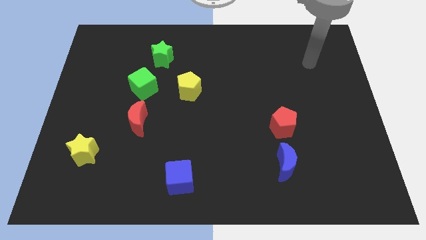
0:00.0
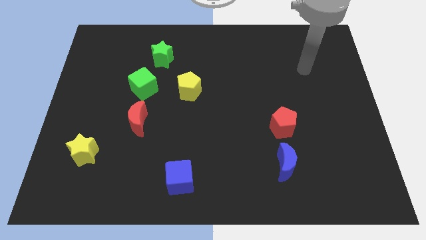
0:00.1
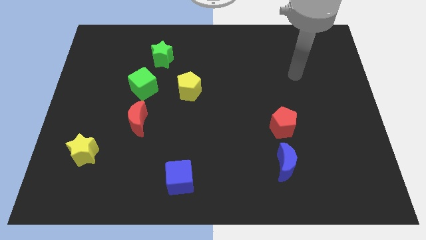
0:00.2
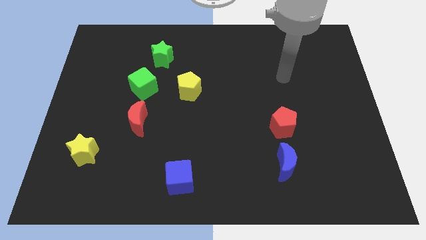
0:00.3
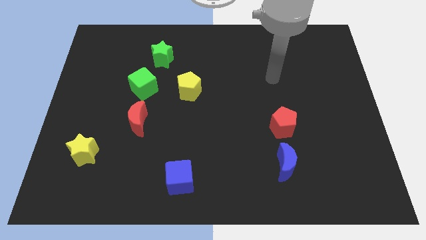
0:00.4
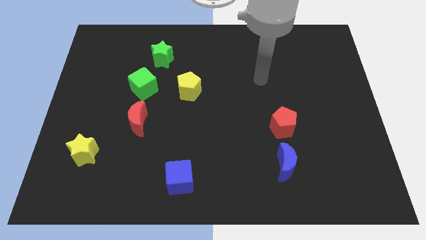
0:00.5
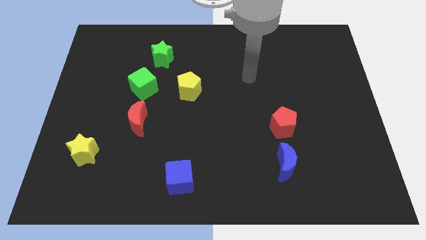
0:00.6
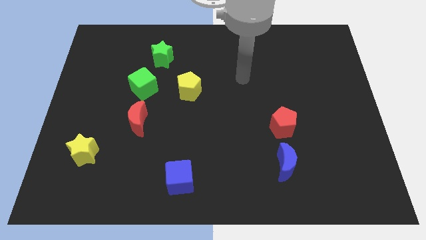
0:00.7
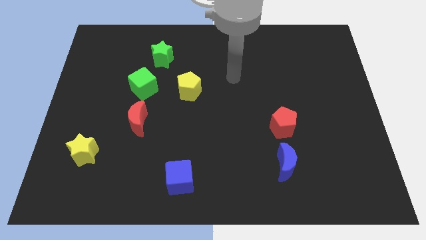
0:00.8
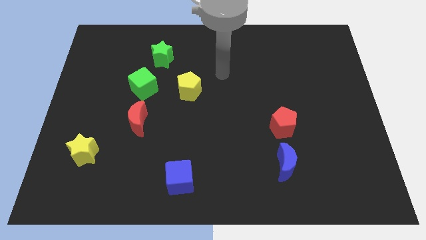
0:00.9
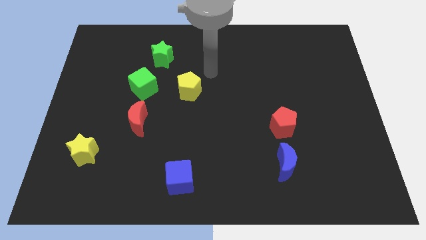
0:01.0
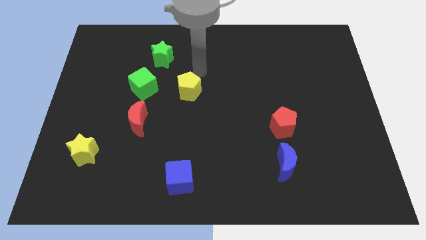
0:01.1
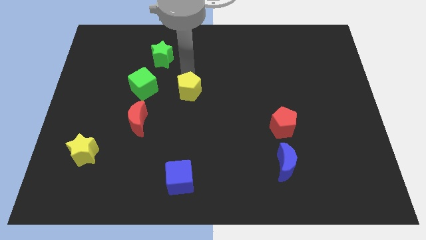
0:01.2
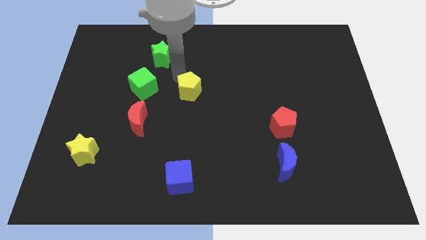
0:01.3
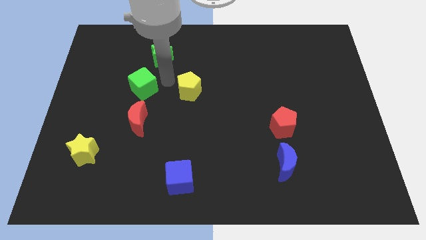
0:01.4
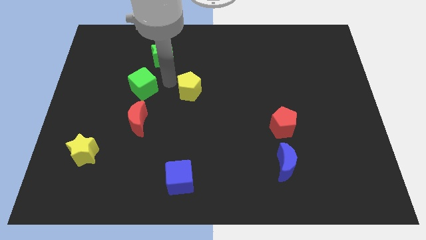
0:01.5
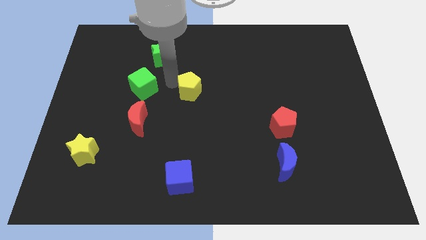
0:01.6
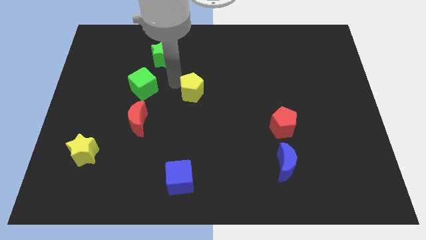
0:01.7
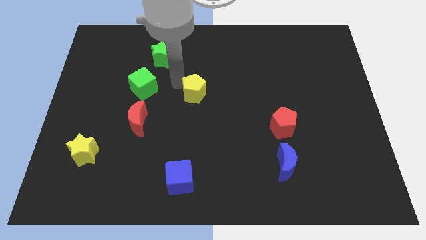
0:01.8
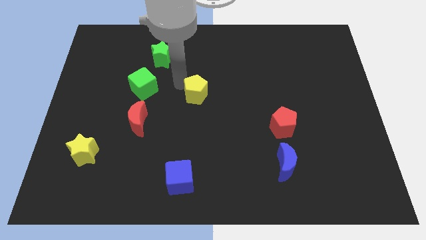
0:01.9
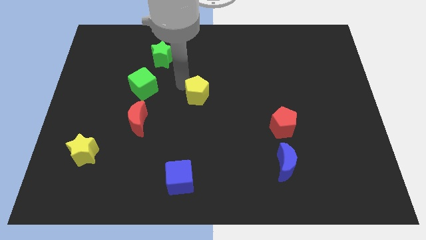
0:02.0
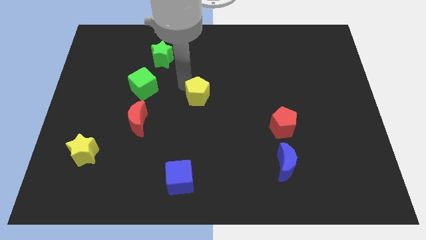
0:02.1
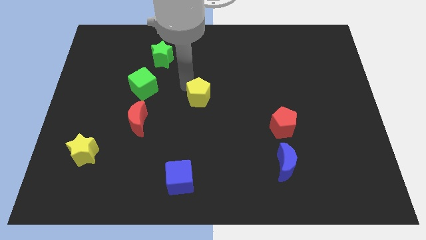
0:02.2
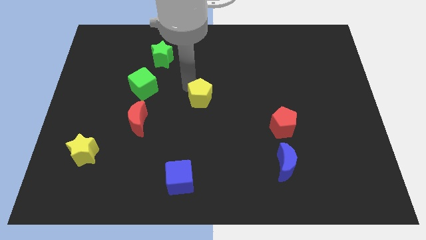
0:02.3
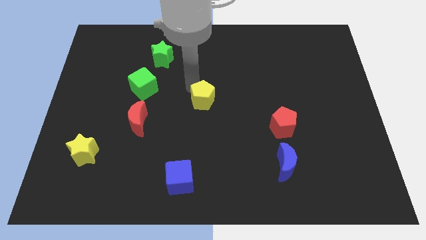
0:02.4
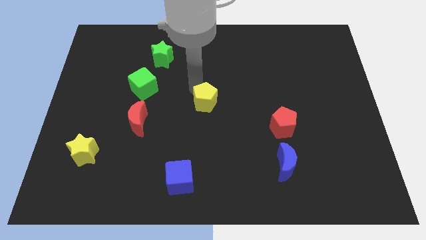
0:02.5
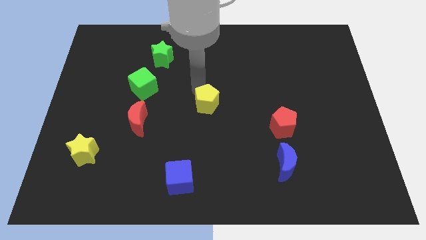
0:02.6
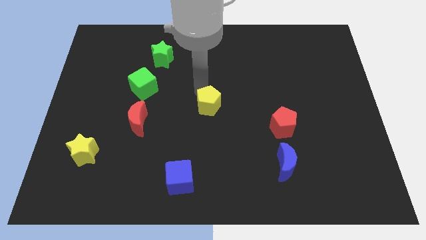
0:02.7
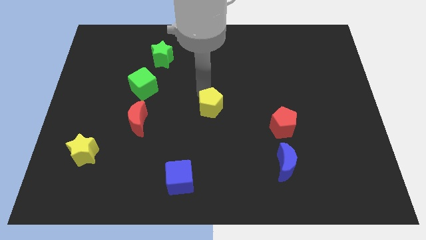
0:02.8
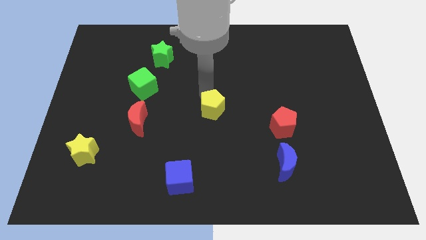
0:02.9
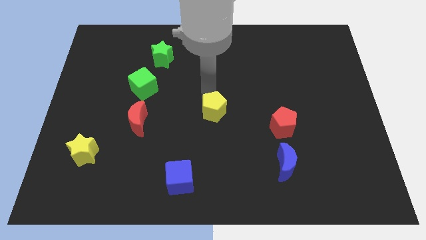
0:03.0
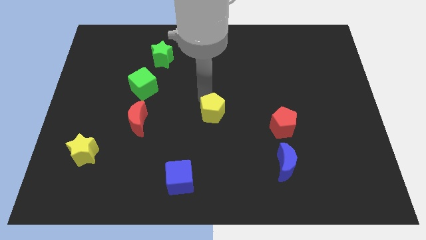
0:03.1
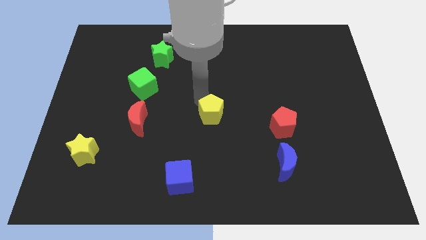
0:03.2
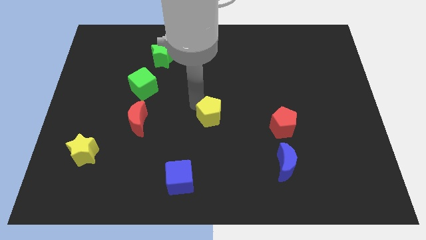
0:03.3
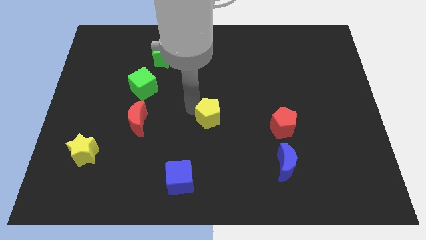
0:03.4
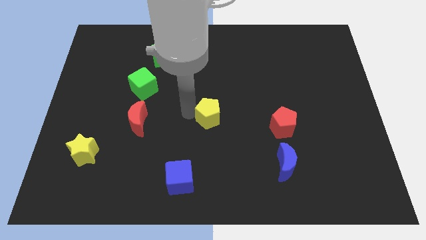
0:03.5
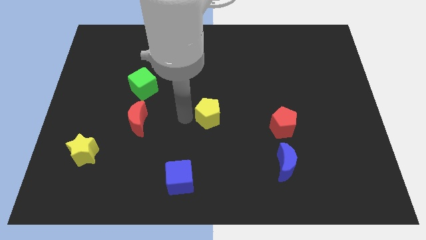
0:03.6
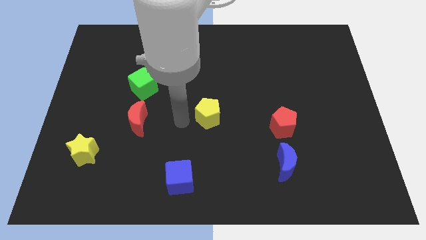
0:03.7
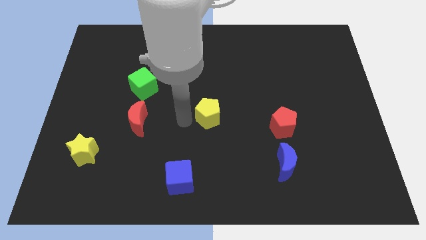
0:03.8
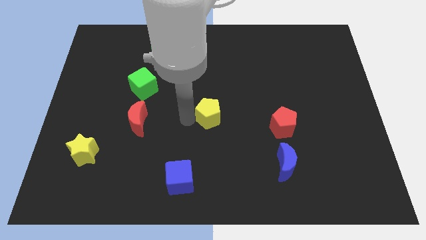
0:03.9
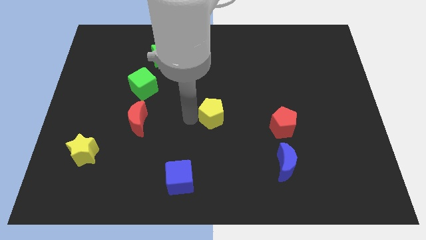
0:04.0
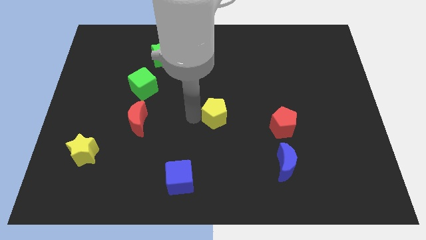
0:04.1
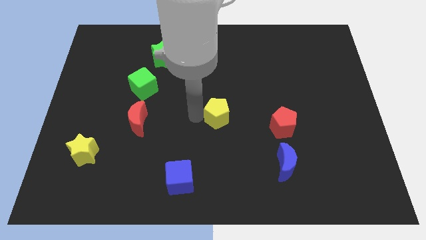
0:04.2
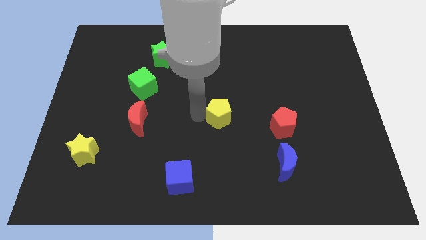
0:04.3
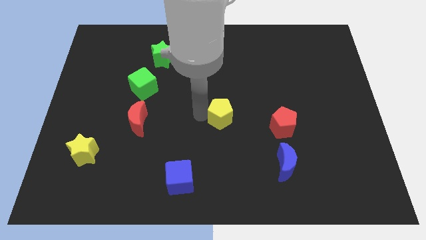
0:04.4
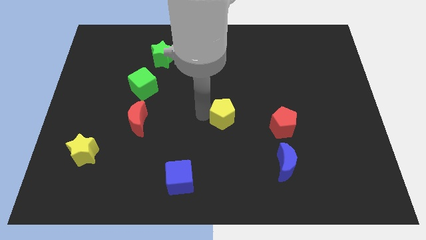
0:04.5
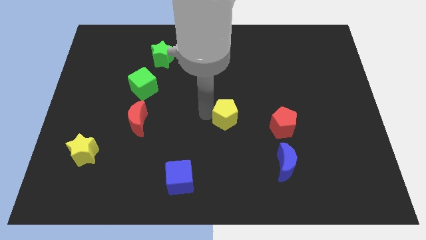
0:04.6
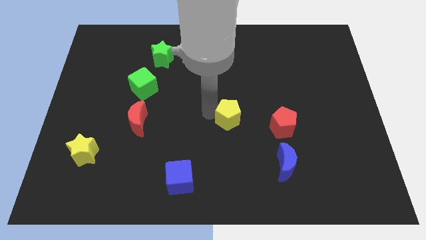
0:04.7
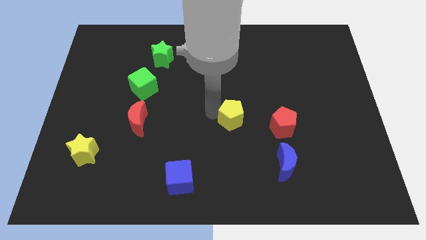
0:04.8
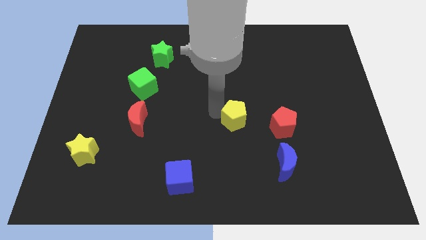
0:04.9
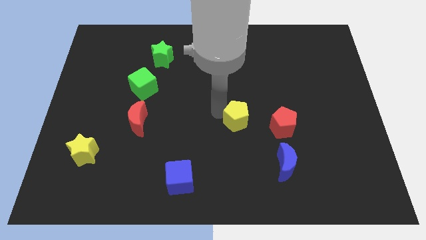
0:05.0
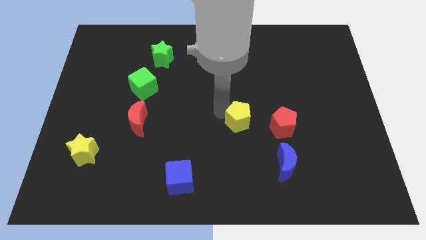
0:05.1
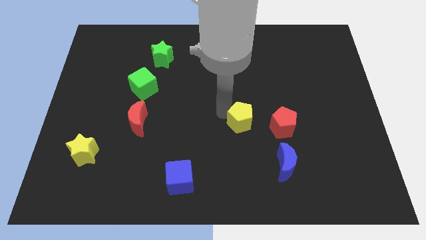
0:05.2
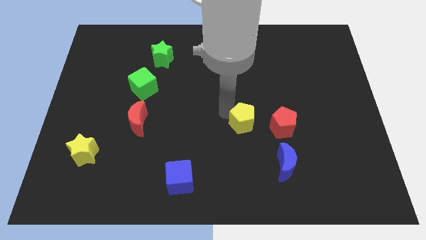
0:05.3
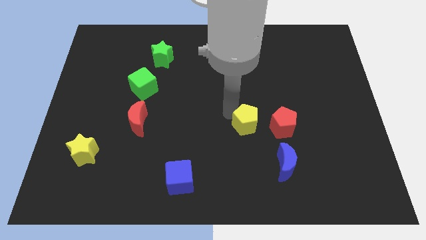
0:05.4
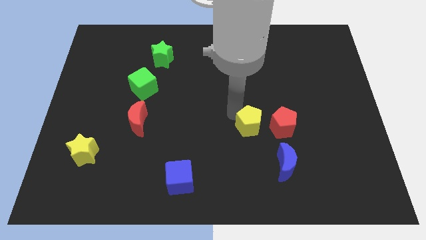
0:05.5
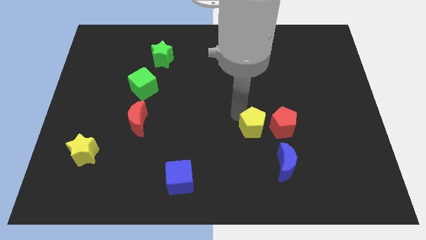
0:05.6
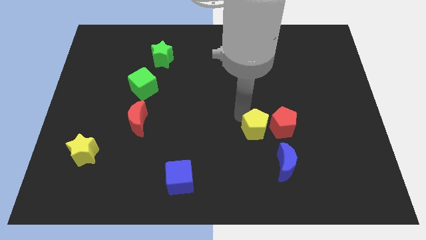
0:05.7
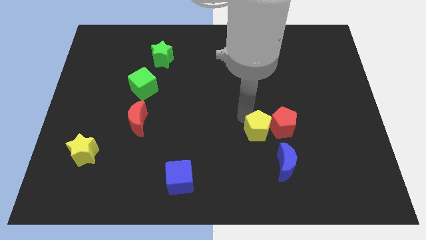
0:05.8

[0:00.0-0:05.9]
move the yellow pentagon close to the red pentagon

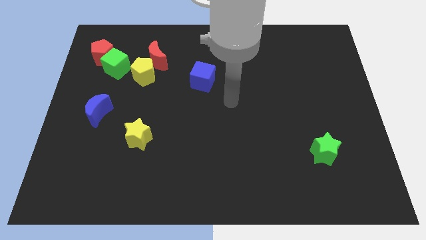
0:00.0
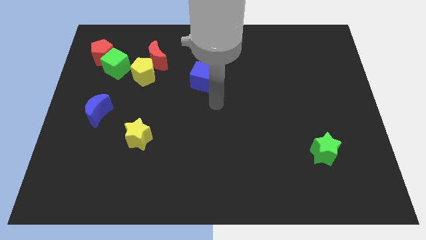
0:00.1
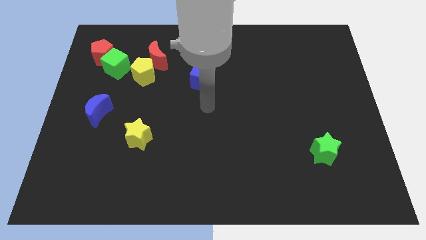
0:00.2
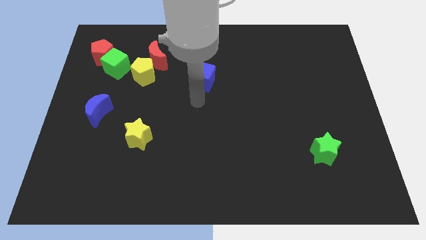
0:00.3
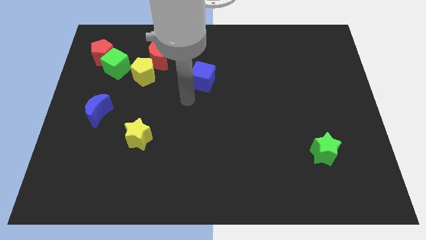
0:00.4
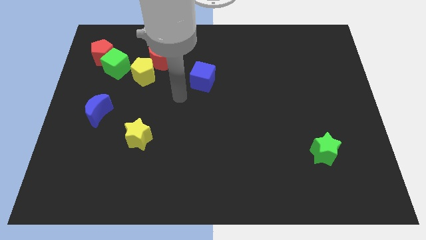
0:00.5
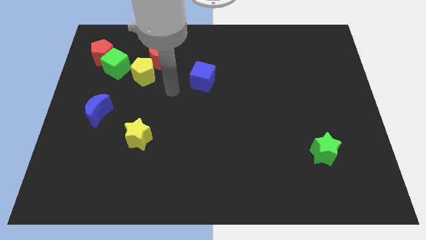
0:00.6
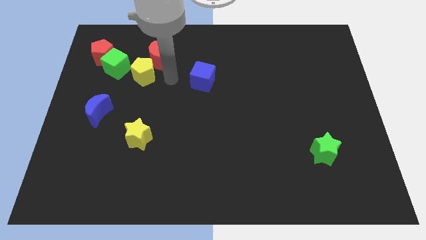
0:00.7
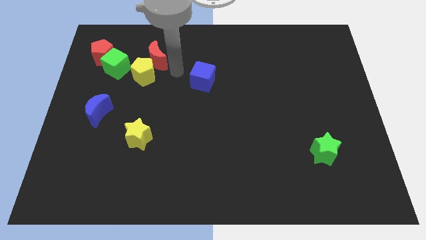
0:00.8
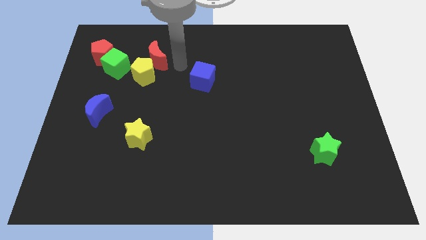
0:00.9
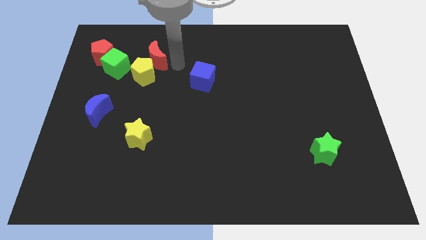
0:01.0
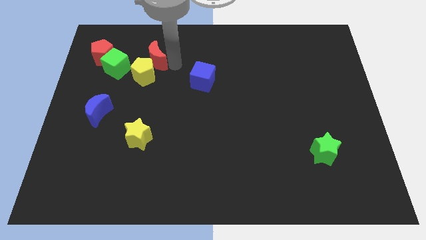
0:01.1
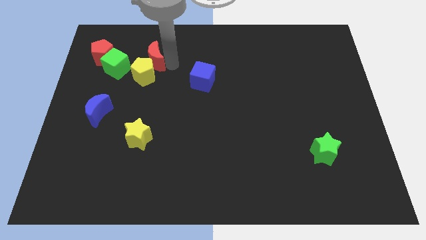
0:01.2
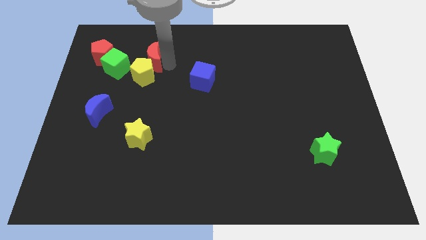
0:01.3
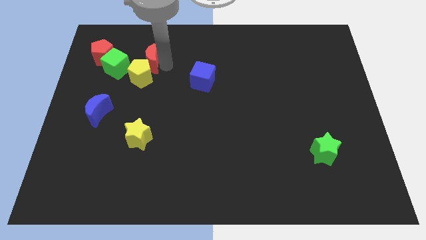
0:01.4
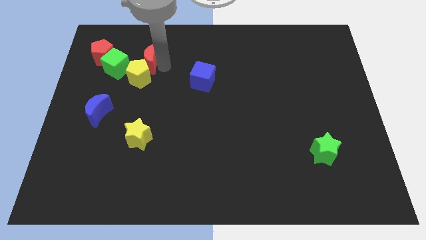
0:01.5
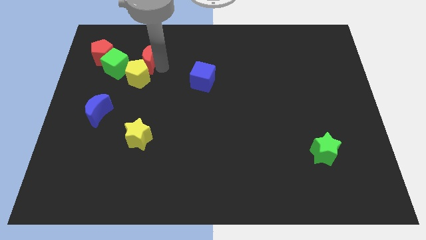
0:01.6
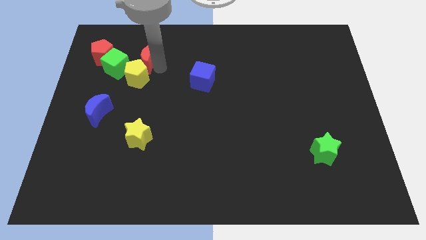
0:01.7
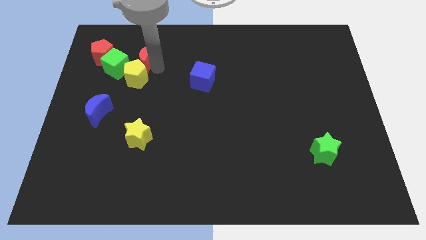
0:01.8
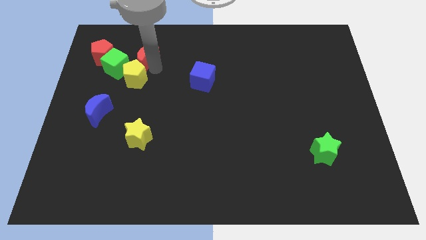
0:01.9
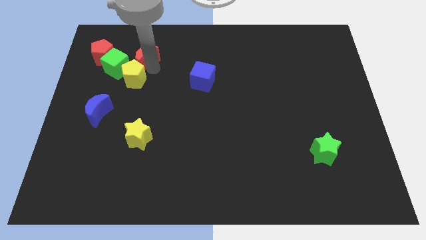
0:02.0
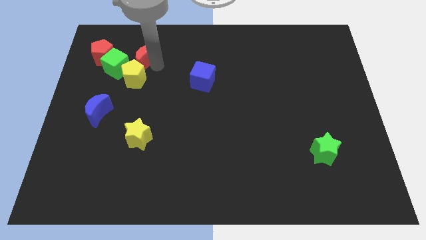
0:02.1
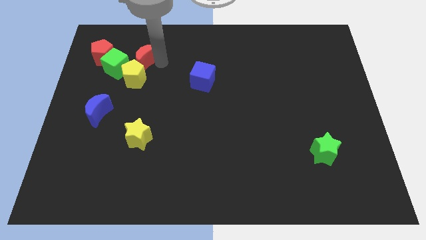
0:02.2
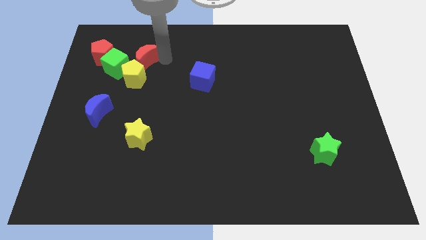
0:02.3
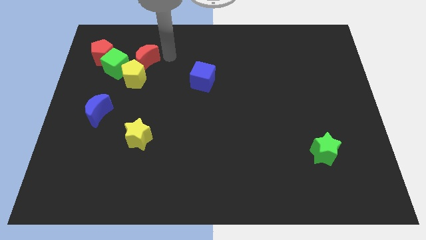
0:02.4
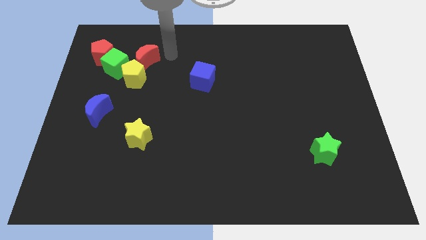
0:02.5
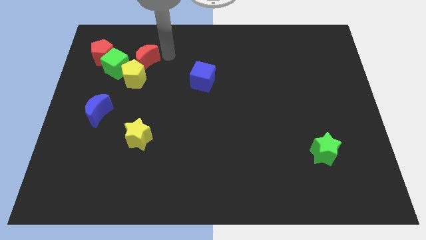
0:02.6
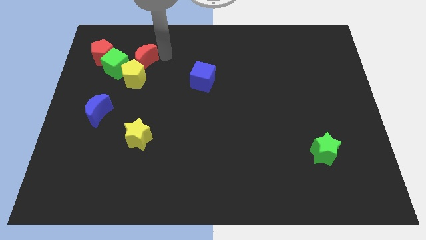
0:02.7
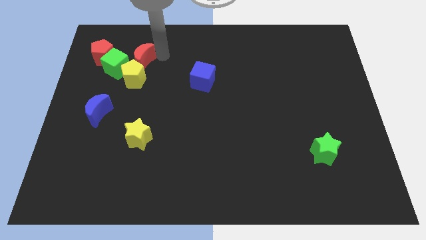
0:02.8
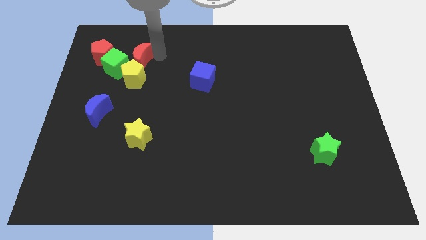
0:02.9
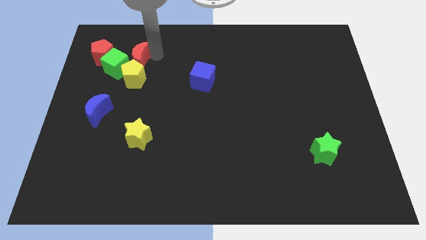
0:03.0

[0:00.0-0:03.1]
put the red moon next to the green cube
